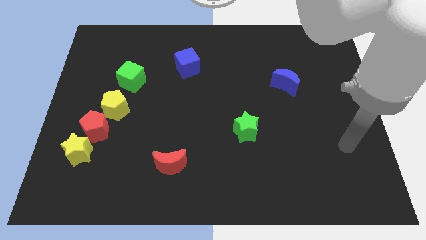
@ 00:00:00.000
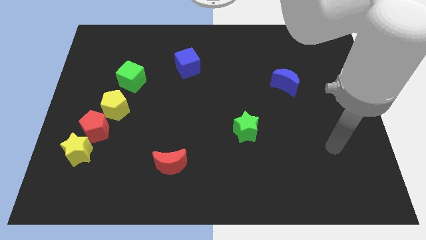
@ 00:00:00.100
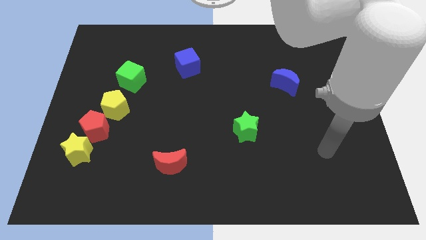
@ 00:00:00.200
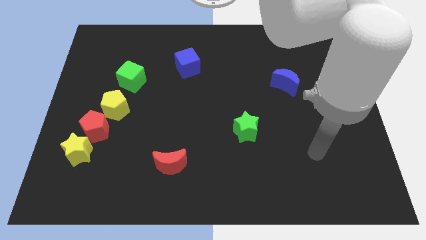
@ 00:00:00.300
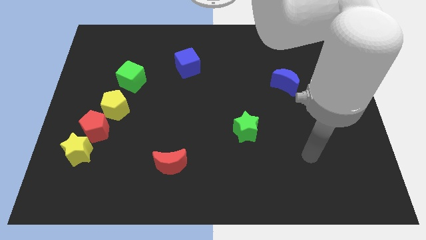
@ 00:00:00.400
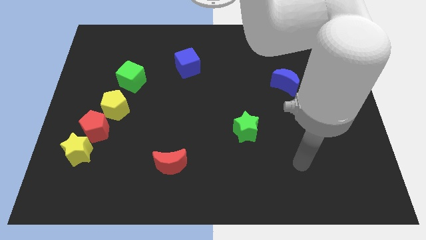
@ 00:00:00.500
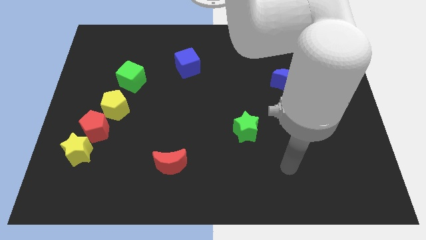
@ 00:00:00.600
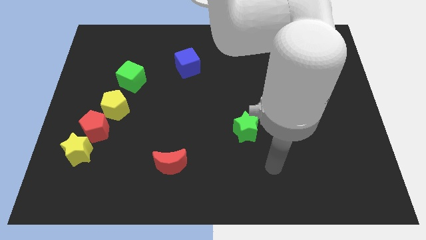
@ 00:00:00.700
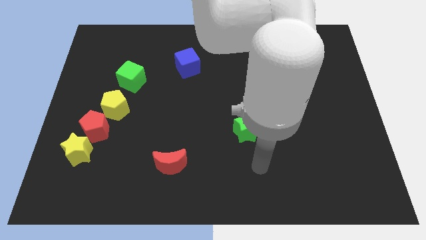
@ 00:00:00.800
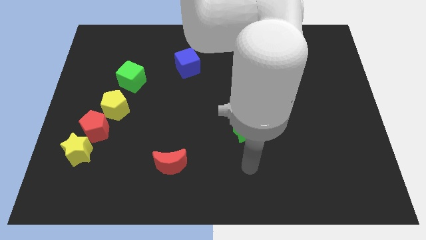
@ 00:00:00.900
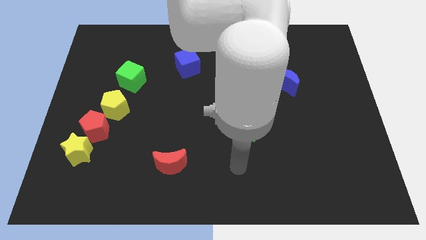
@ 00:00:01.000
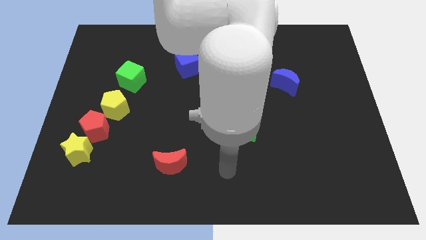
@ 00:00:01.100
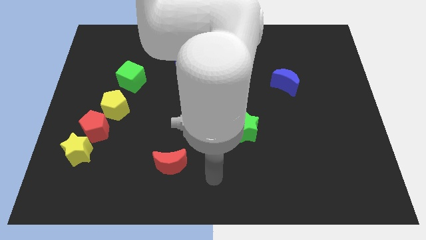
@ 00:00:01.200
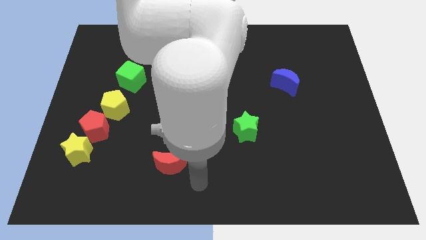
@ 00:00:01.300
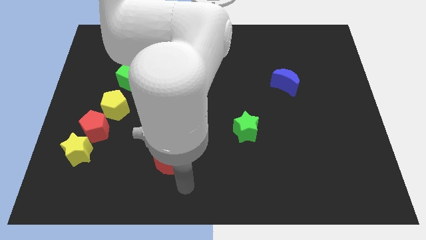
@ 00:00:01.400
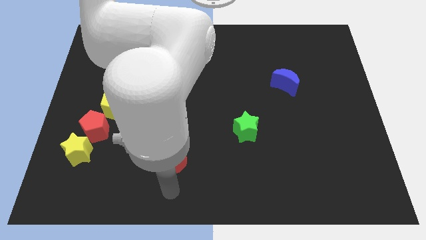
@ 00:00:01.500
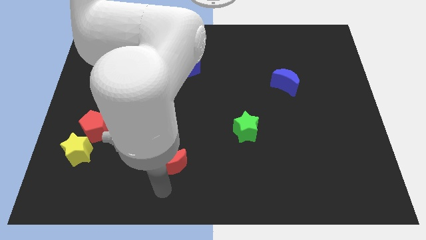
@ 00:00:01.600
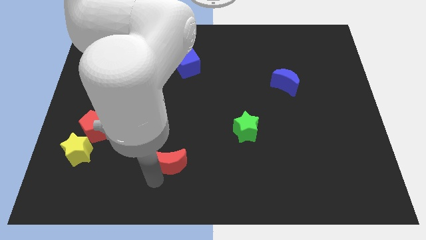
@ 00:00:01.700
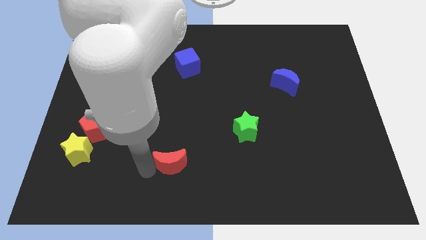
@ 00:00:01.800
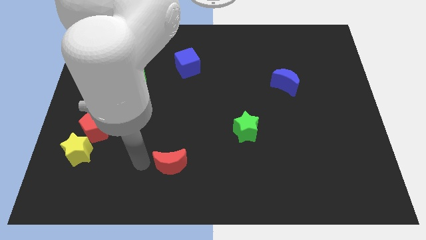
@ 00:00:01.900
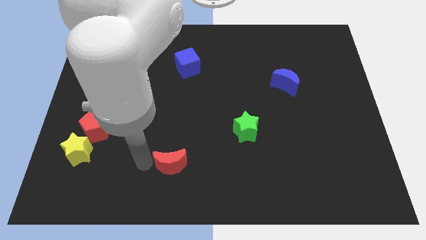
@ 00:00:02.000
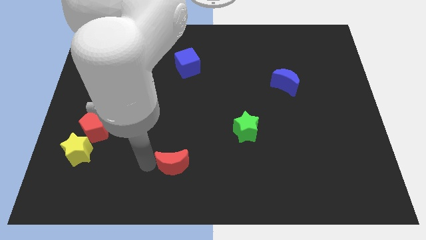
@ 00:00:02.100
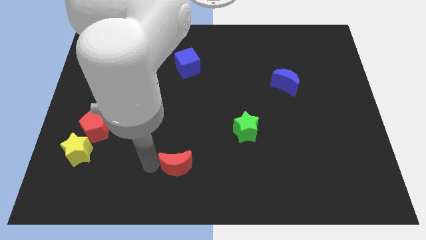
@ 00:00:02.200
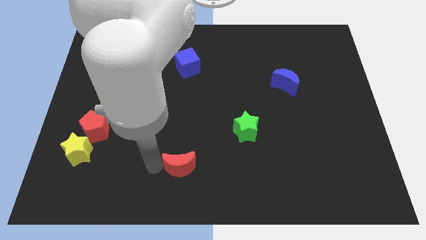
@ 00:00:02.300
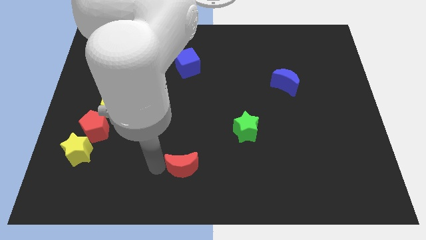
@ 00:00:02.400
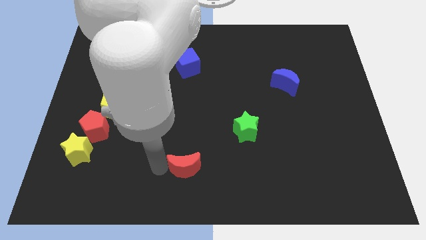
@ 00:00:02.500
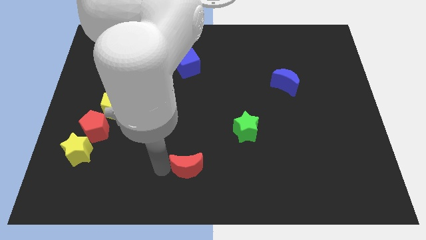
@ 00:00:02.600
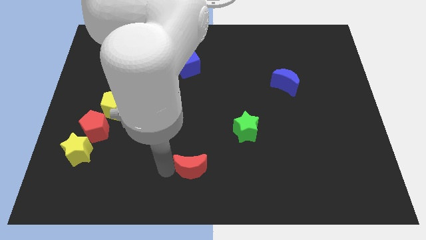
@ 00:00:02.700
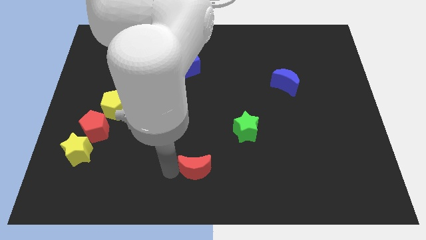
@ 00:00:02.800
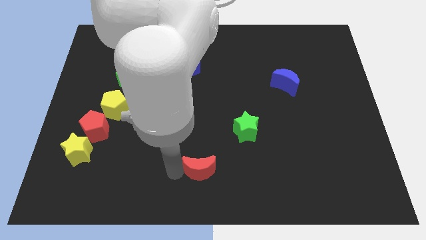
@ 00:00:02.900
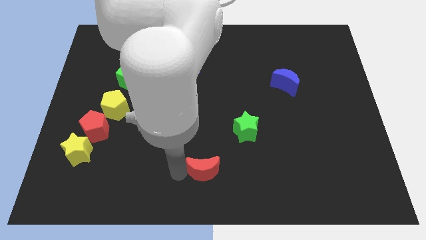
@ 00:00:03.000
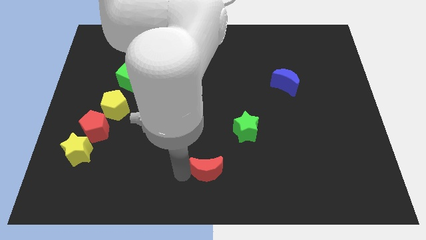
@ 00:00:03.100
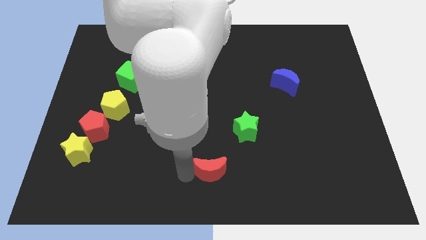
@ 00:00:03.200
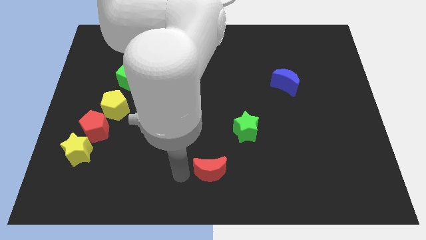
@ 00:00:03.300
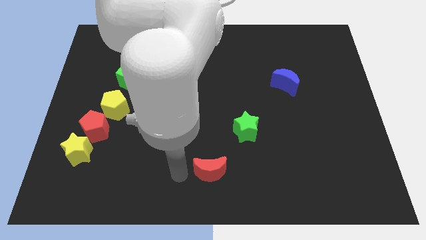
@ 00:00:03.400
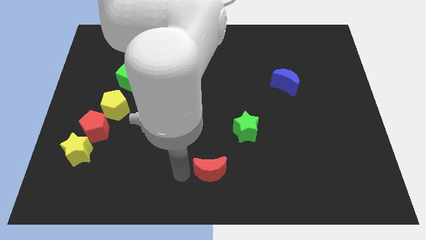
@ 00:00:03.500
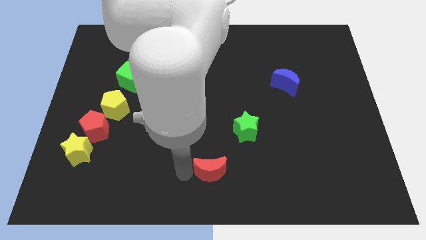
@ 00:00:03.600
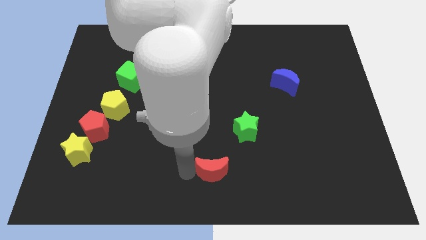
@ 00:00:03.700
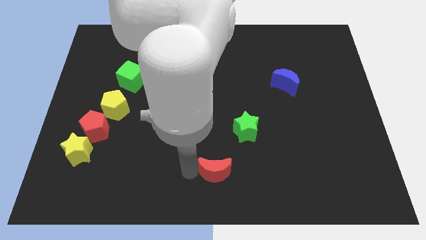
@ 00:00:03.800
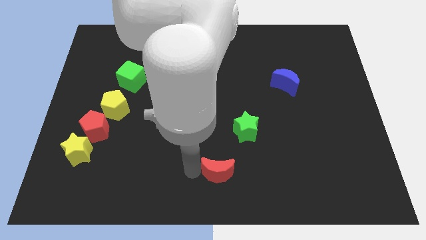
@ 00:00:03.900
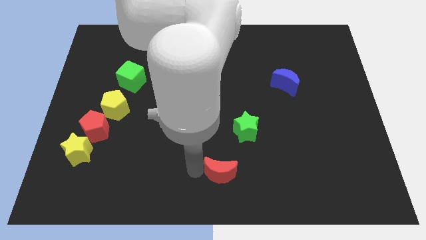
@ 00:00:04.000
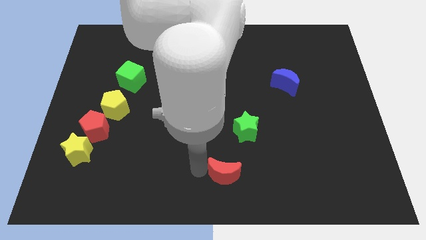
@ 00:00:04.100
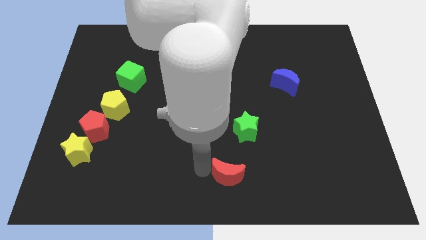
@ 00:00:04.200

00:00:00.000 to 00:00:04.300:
push the red moon below the green star

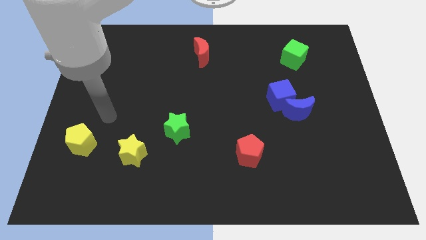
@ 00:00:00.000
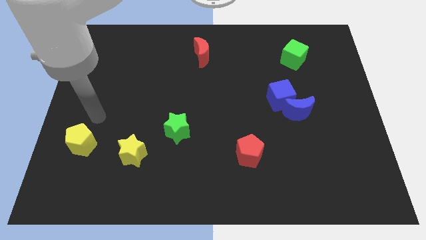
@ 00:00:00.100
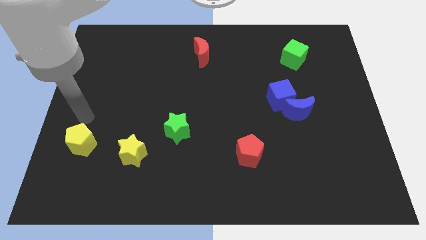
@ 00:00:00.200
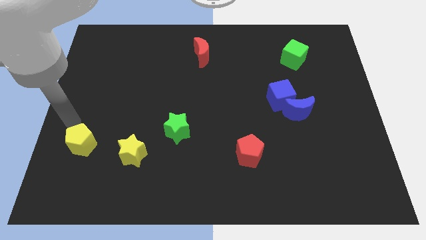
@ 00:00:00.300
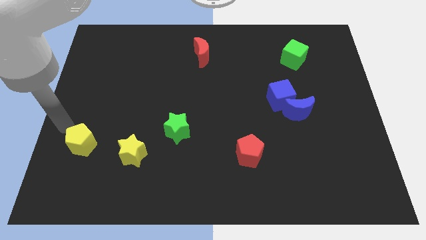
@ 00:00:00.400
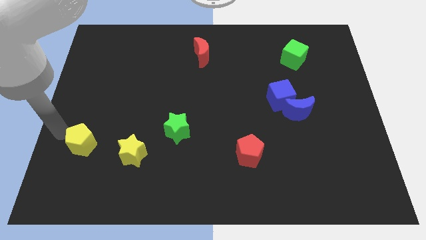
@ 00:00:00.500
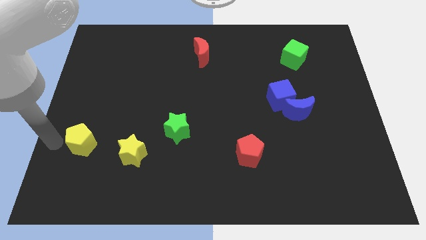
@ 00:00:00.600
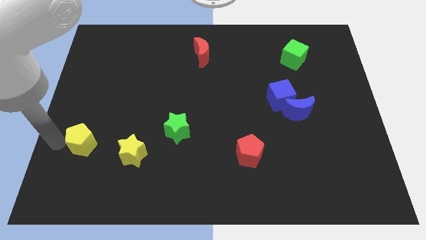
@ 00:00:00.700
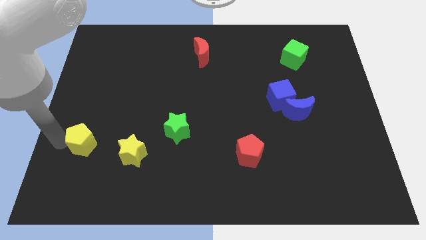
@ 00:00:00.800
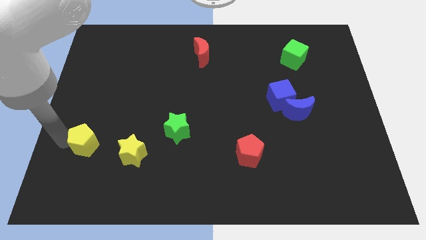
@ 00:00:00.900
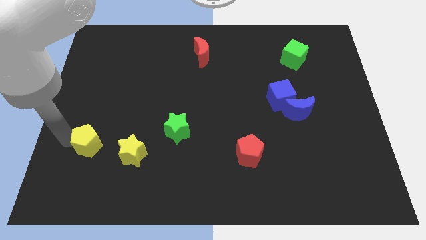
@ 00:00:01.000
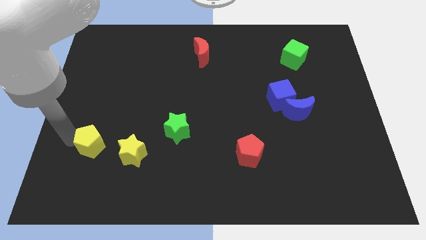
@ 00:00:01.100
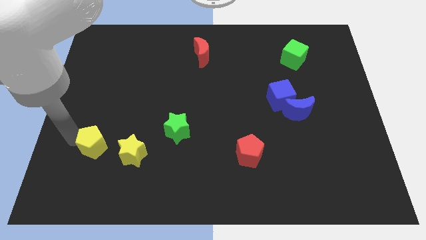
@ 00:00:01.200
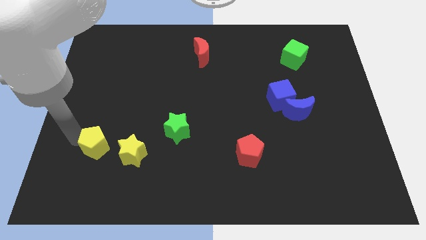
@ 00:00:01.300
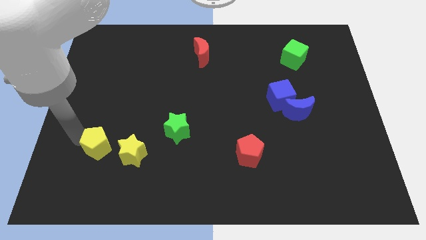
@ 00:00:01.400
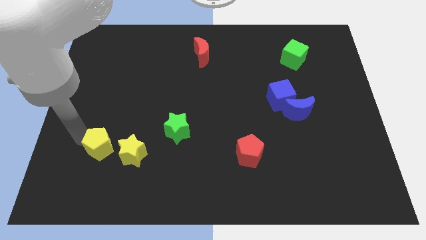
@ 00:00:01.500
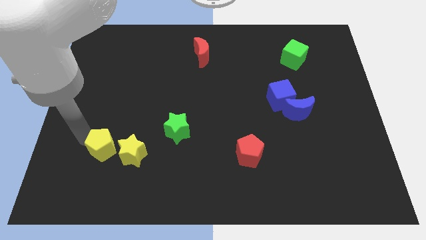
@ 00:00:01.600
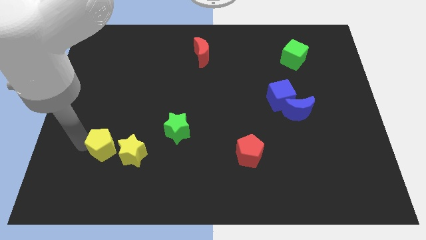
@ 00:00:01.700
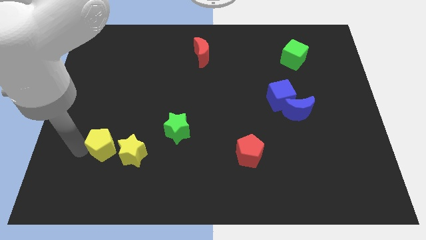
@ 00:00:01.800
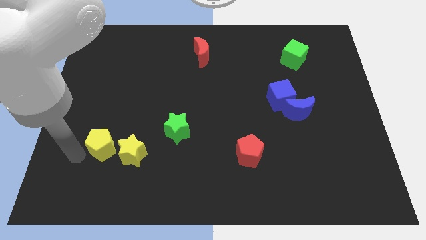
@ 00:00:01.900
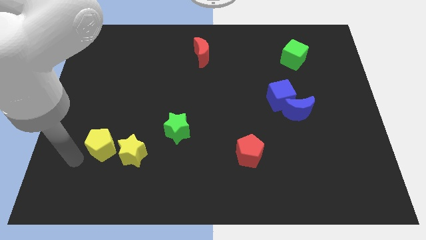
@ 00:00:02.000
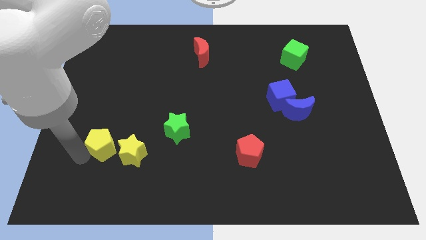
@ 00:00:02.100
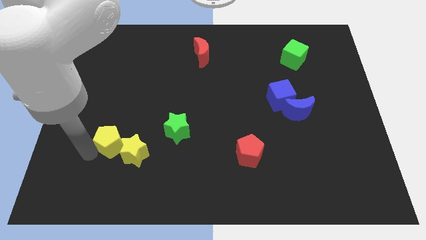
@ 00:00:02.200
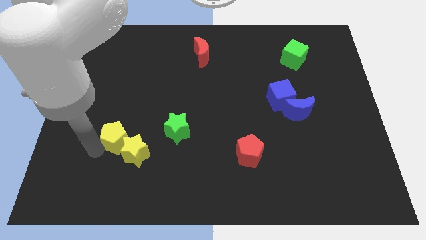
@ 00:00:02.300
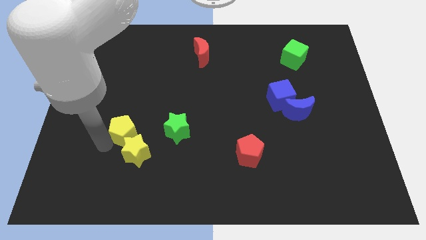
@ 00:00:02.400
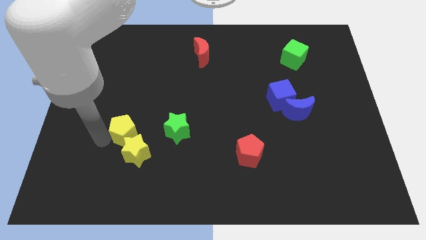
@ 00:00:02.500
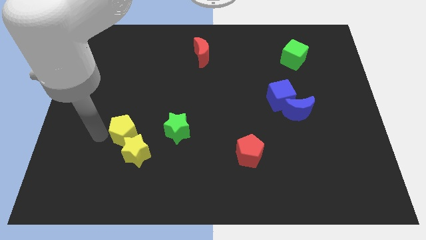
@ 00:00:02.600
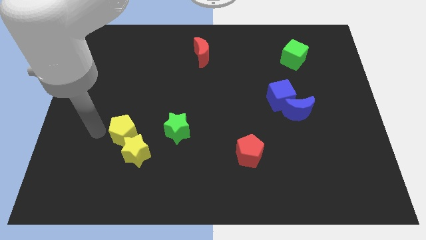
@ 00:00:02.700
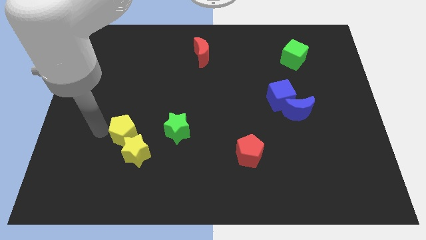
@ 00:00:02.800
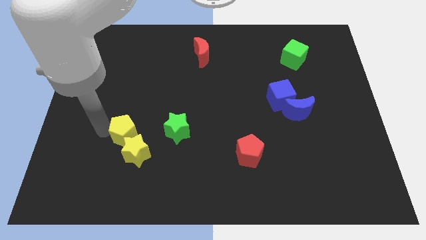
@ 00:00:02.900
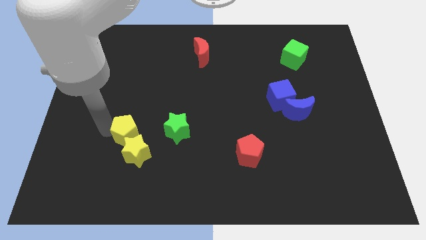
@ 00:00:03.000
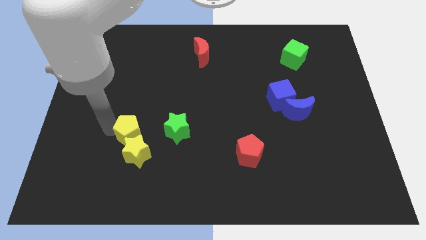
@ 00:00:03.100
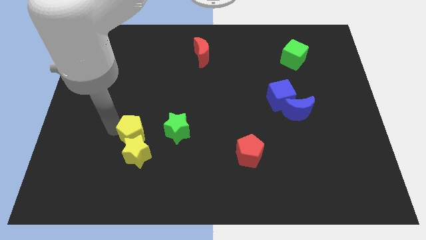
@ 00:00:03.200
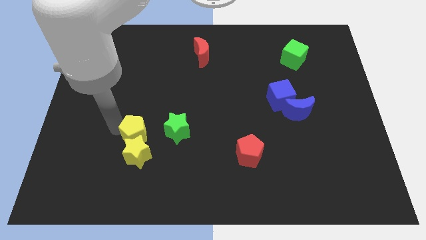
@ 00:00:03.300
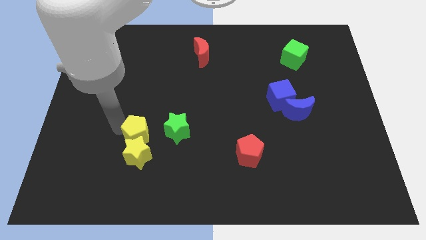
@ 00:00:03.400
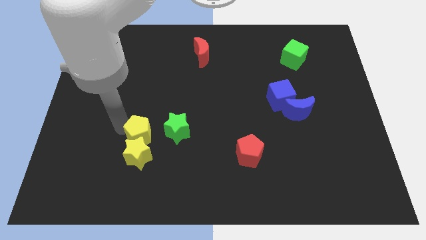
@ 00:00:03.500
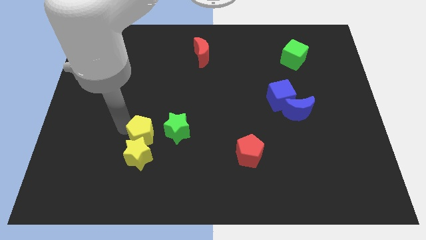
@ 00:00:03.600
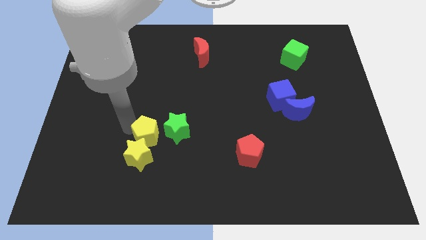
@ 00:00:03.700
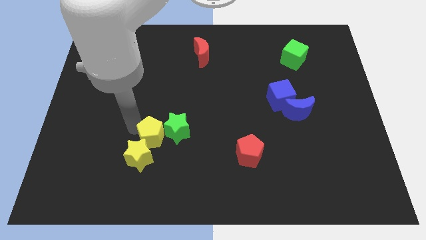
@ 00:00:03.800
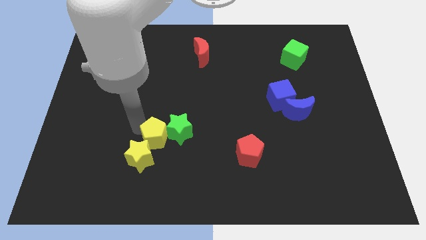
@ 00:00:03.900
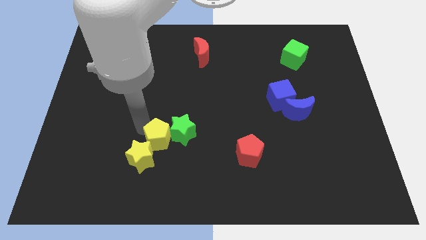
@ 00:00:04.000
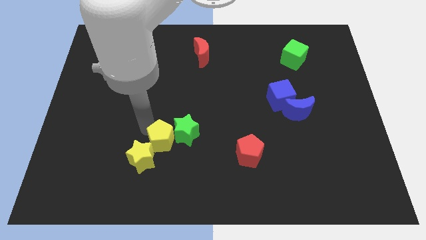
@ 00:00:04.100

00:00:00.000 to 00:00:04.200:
move the yellow pentagon to the right of the yellow star
